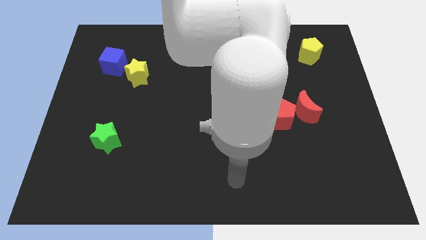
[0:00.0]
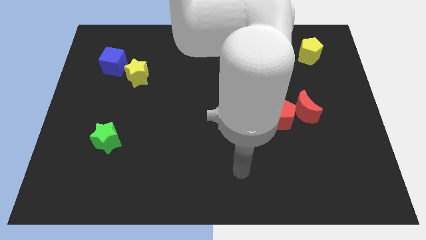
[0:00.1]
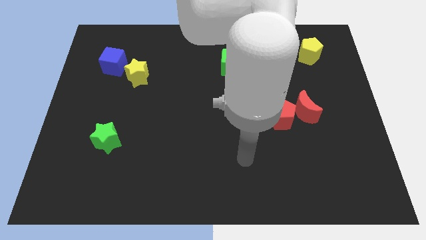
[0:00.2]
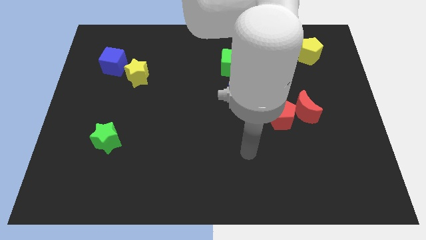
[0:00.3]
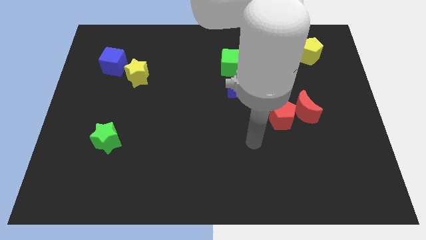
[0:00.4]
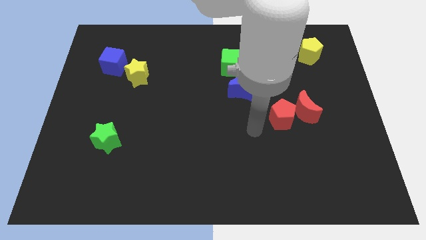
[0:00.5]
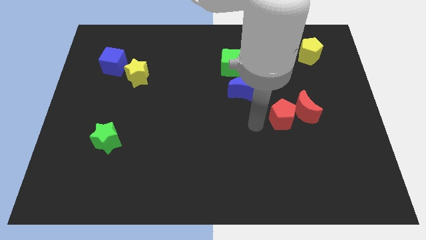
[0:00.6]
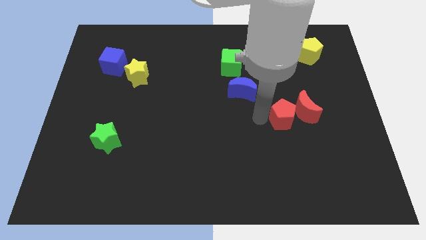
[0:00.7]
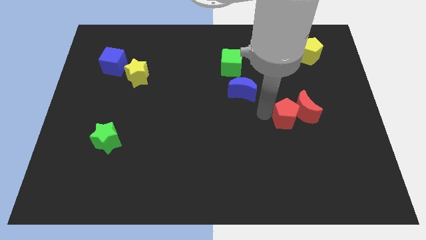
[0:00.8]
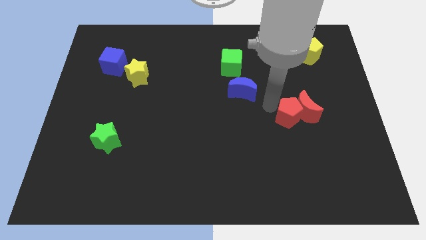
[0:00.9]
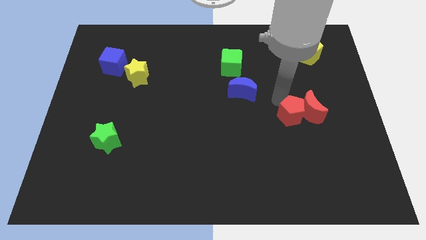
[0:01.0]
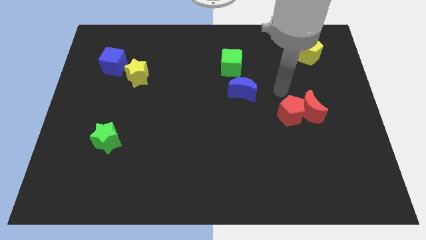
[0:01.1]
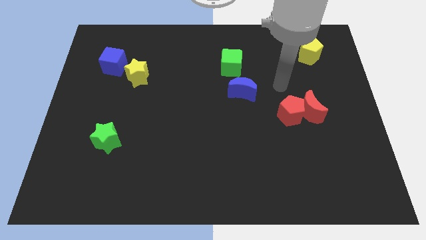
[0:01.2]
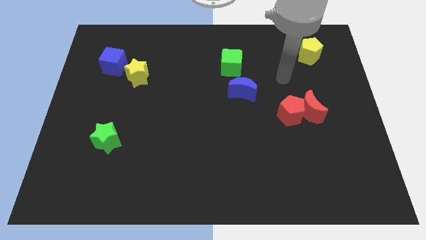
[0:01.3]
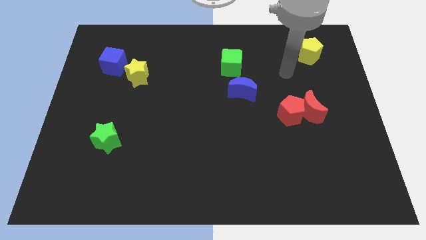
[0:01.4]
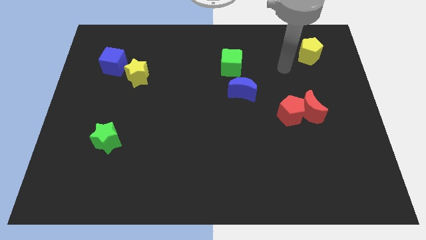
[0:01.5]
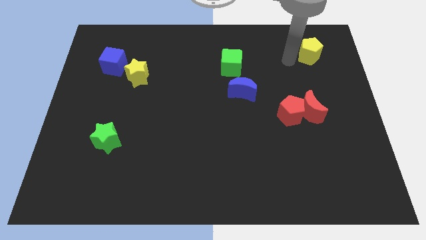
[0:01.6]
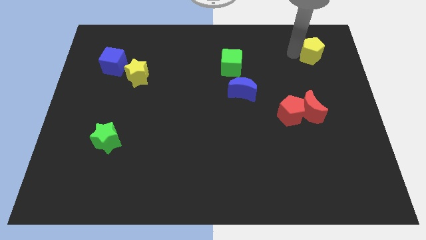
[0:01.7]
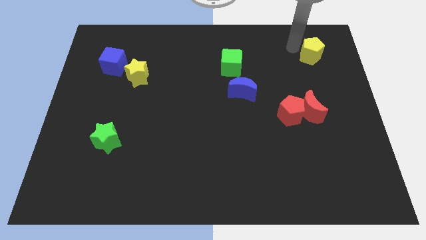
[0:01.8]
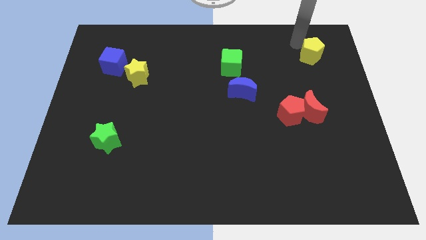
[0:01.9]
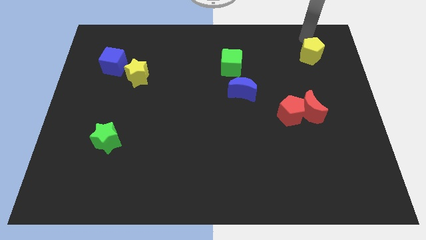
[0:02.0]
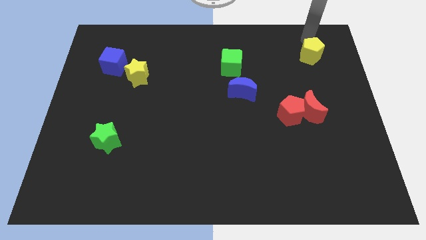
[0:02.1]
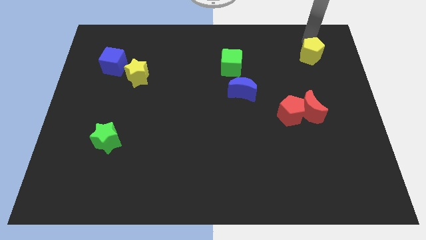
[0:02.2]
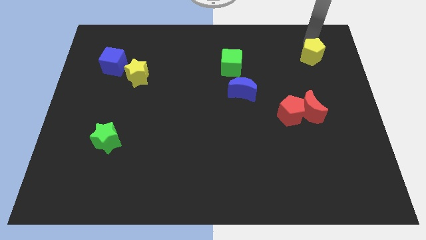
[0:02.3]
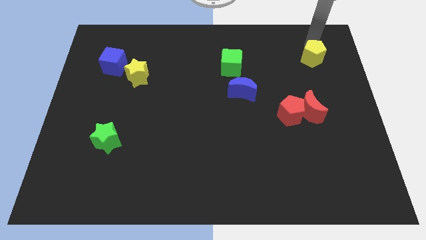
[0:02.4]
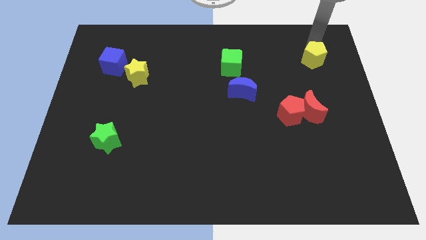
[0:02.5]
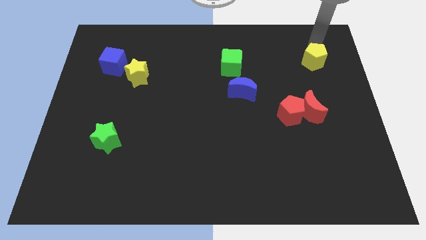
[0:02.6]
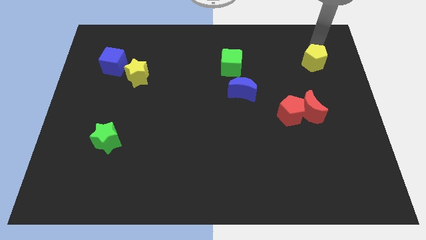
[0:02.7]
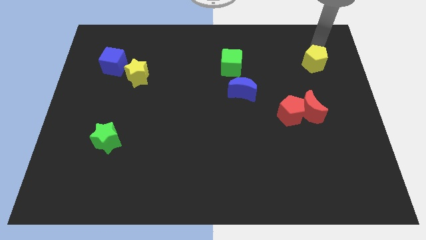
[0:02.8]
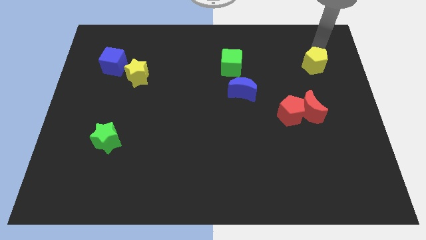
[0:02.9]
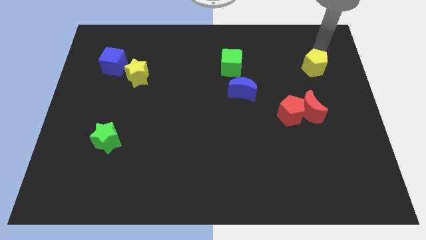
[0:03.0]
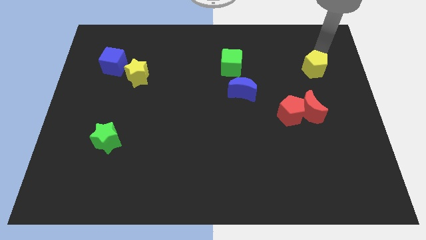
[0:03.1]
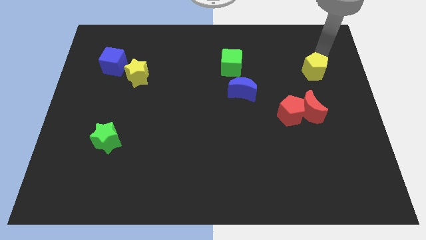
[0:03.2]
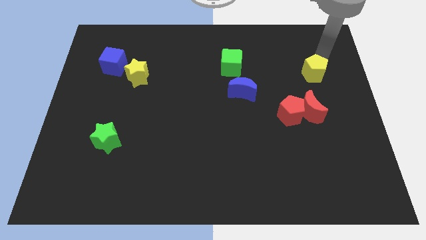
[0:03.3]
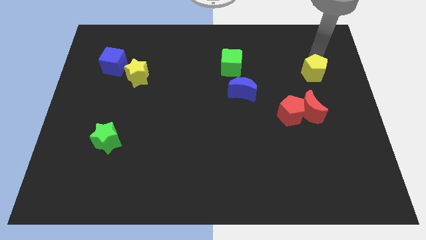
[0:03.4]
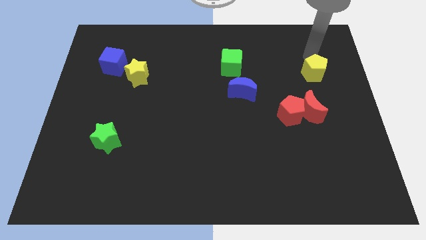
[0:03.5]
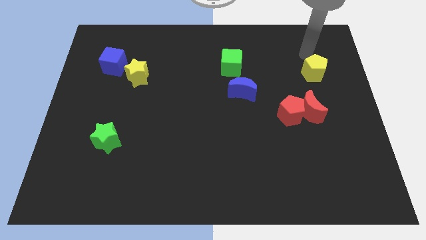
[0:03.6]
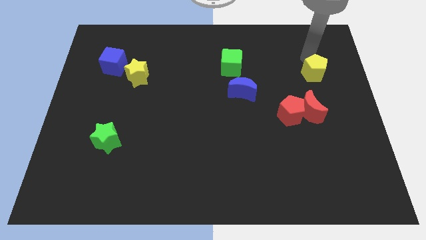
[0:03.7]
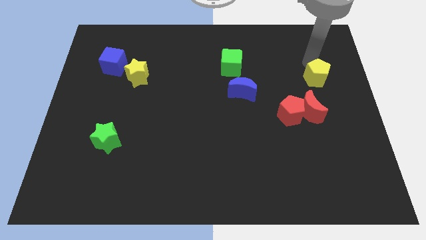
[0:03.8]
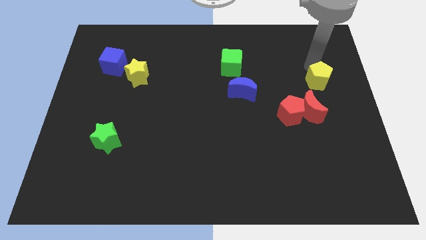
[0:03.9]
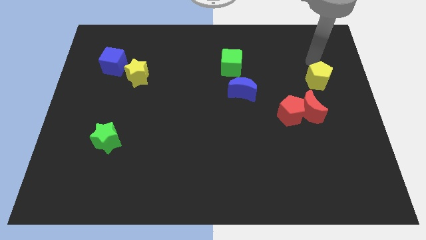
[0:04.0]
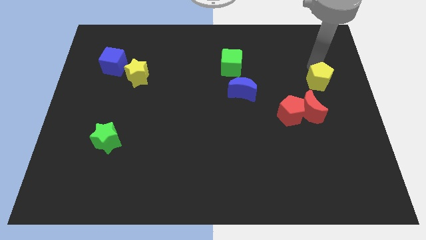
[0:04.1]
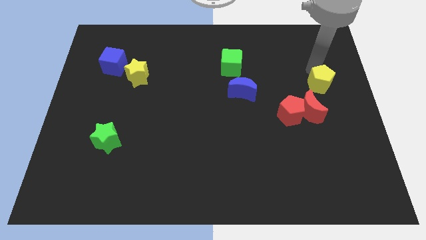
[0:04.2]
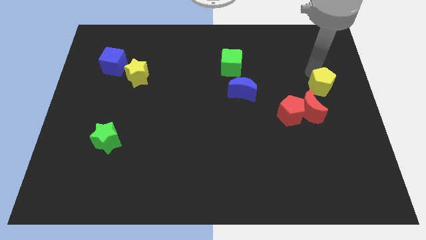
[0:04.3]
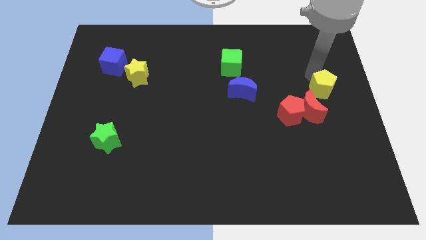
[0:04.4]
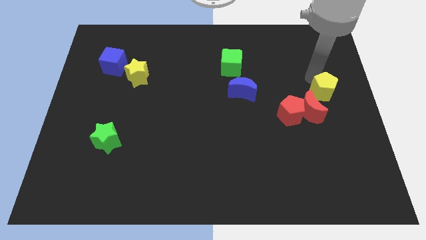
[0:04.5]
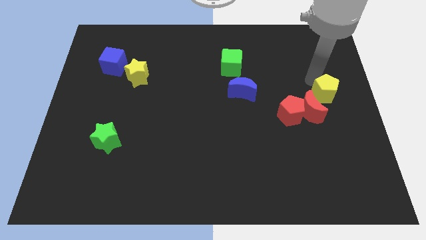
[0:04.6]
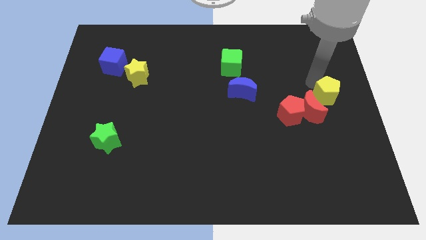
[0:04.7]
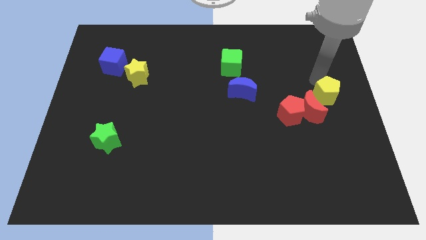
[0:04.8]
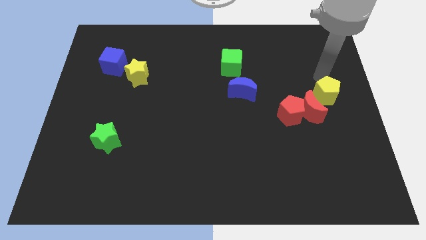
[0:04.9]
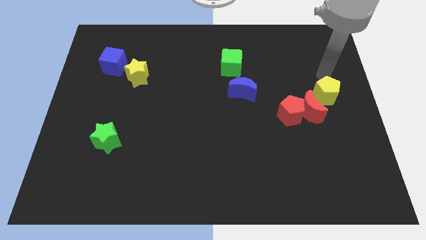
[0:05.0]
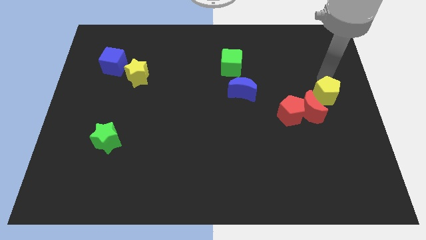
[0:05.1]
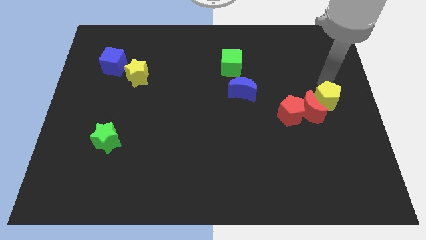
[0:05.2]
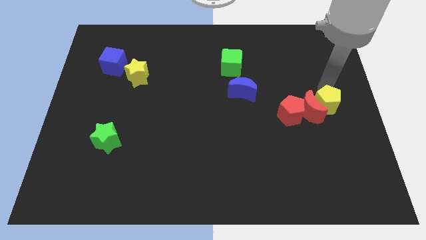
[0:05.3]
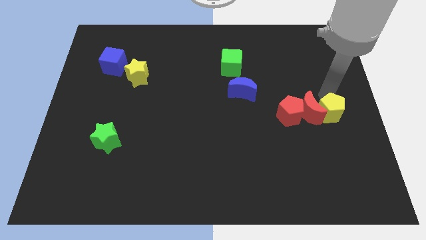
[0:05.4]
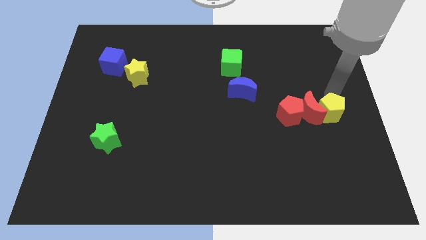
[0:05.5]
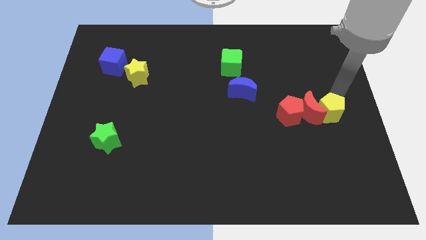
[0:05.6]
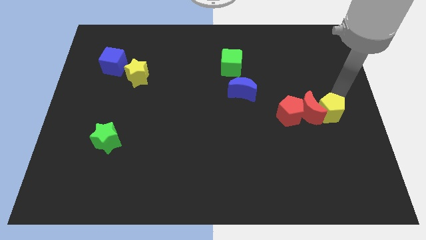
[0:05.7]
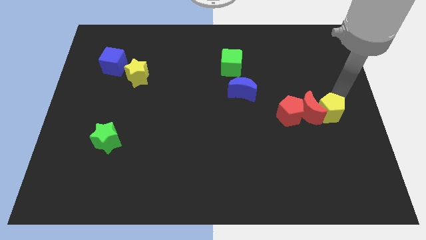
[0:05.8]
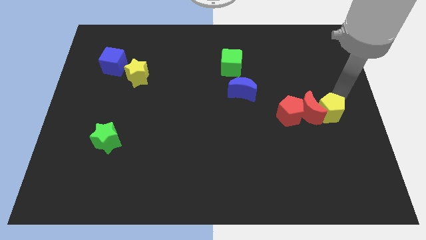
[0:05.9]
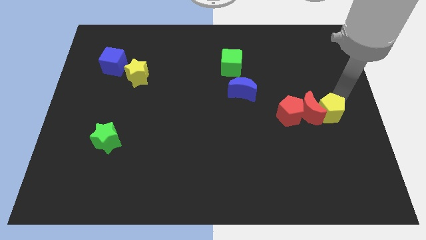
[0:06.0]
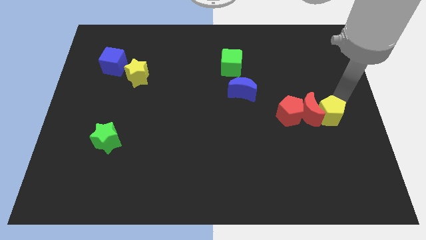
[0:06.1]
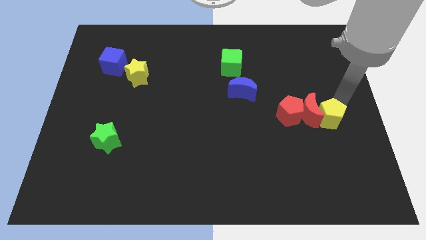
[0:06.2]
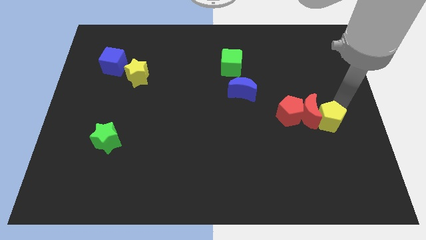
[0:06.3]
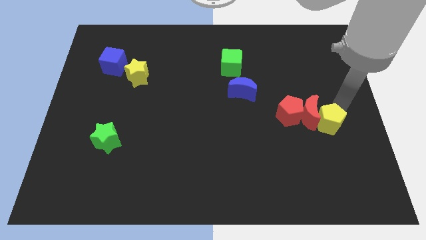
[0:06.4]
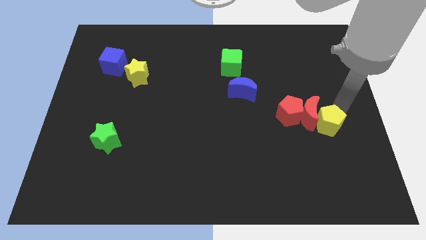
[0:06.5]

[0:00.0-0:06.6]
move the yellow pentagon below the red moon
